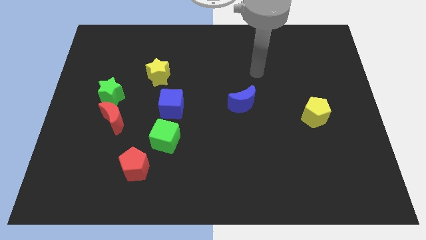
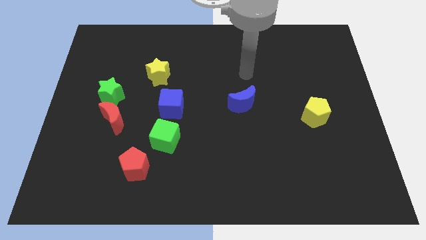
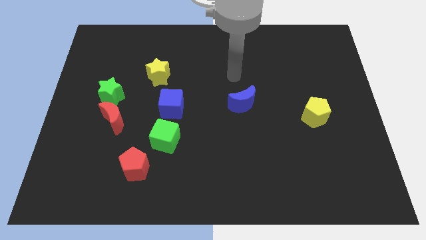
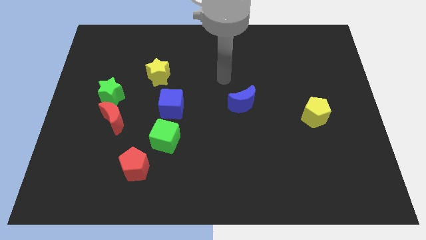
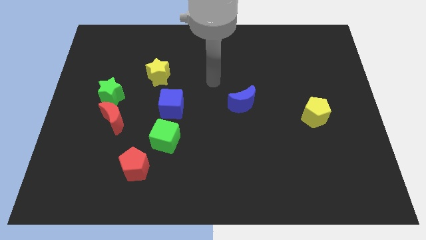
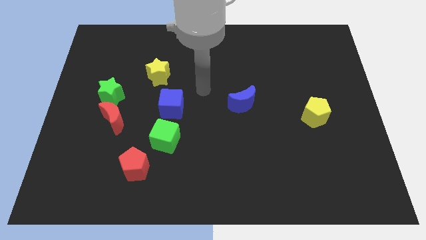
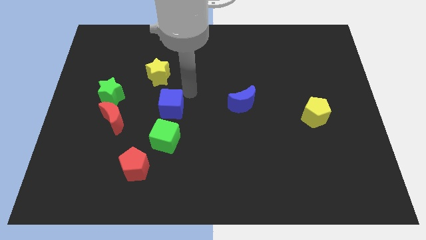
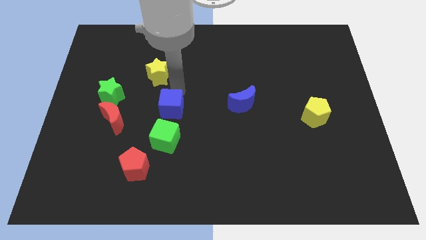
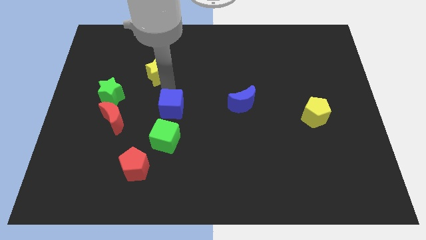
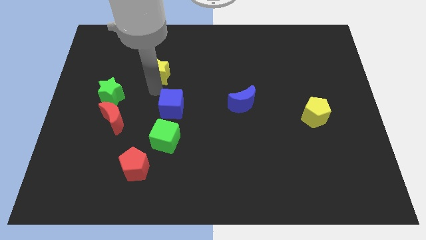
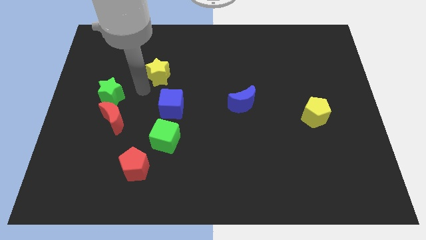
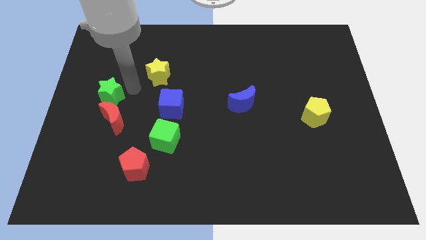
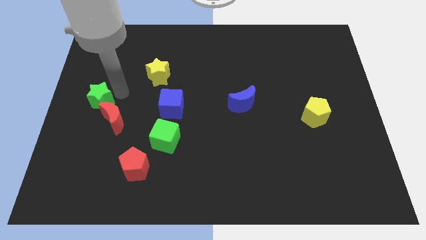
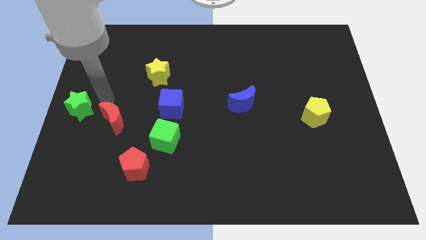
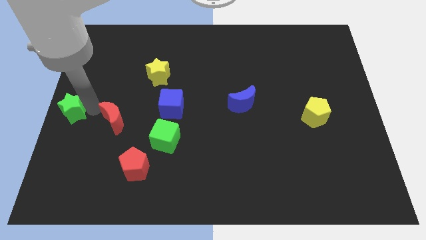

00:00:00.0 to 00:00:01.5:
move the red moon away from the green star

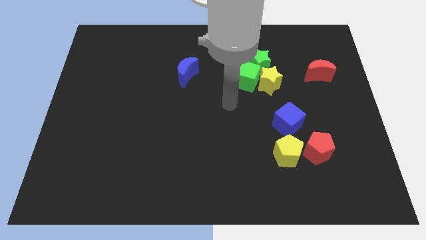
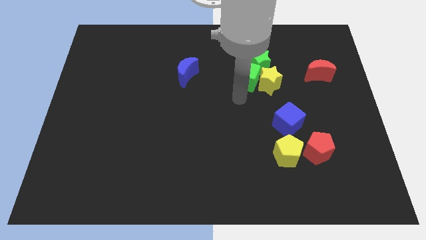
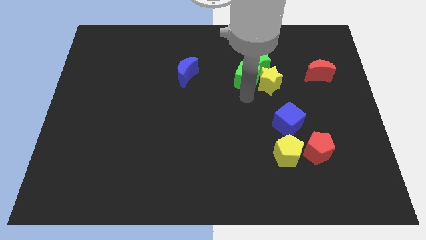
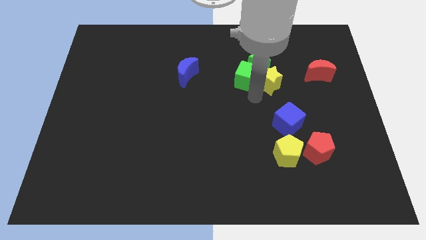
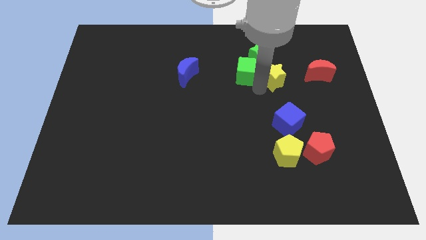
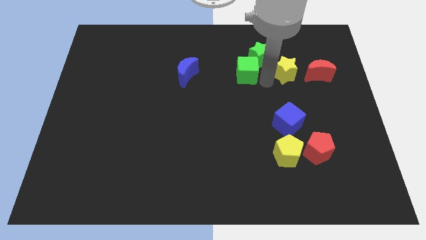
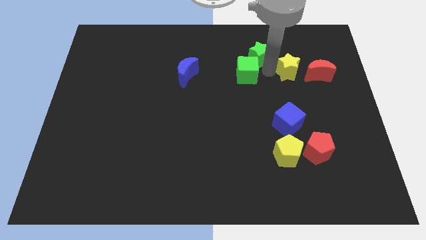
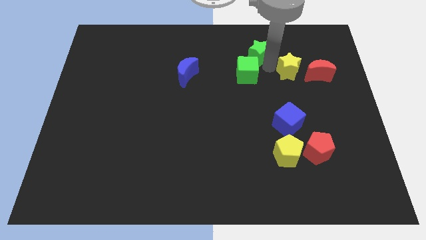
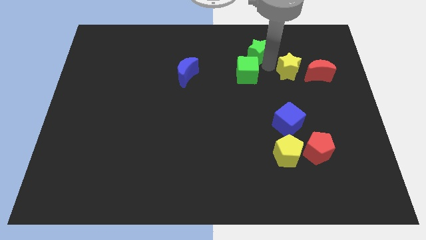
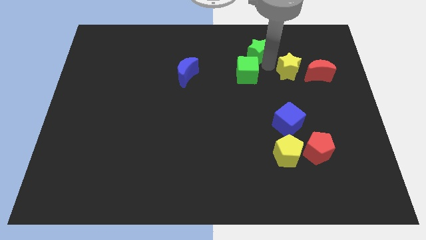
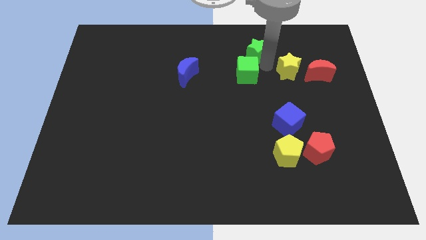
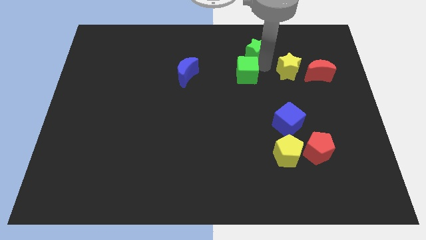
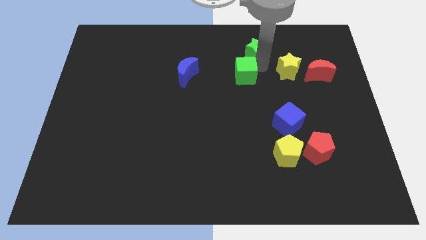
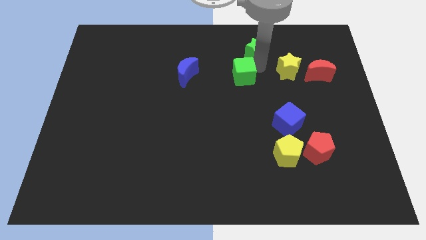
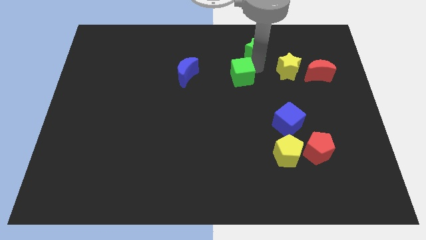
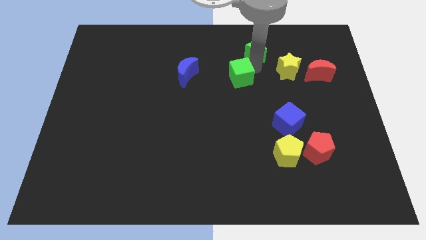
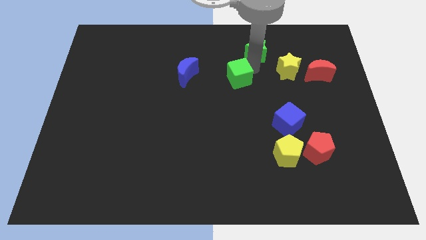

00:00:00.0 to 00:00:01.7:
pull the green cube apart from the yellow star and green star

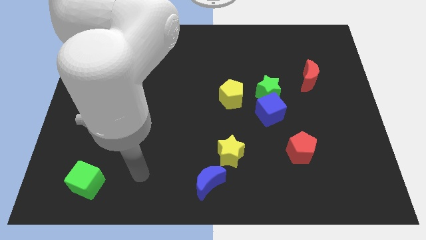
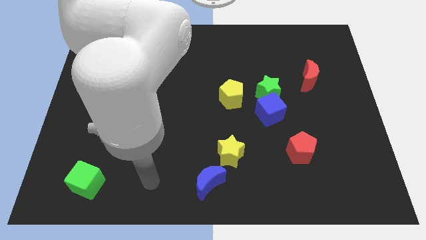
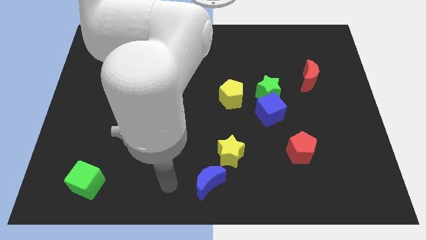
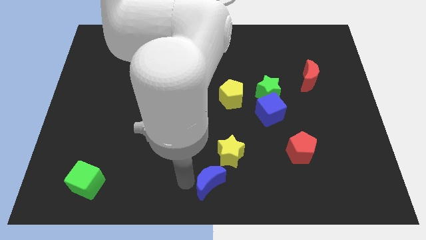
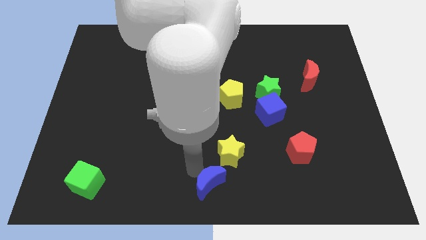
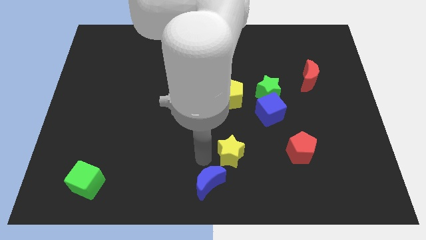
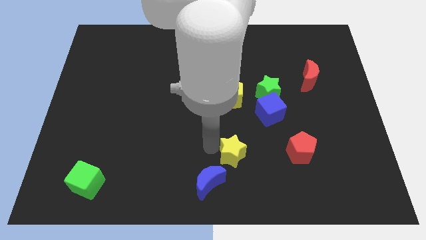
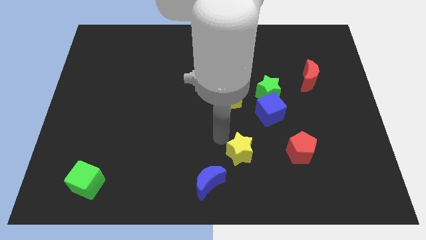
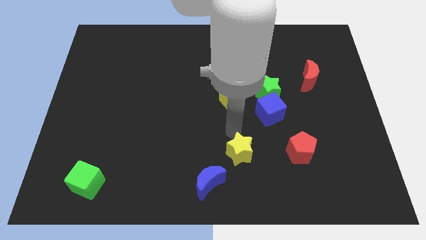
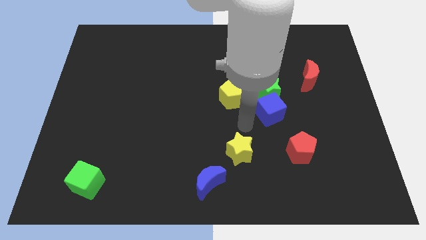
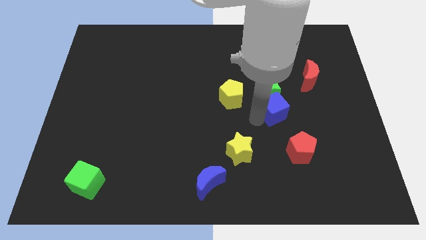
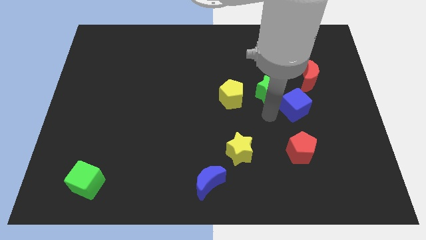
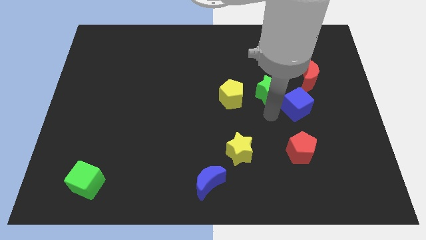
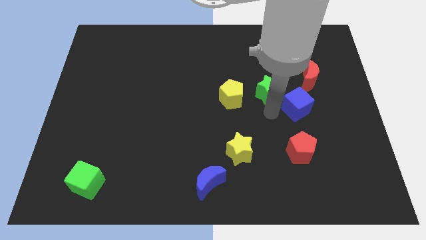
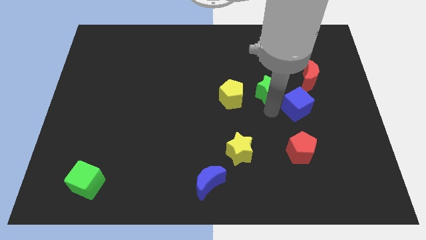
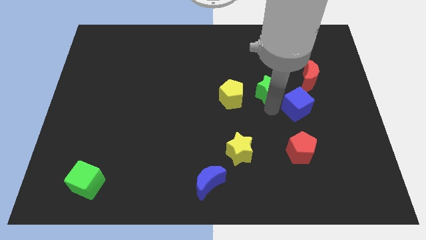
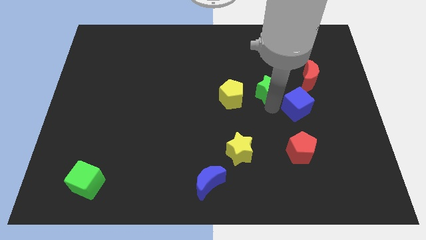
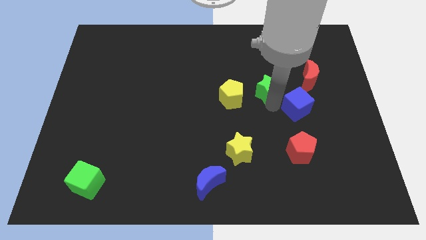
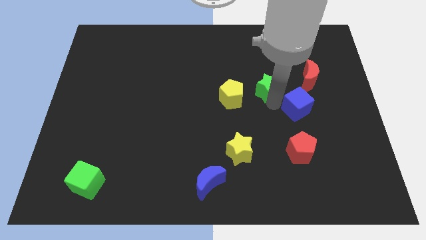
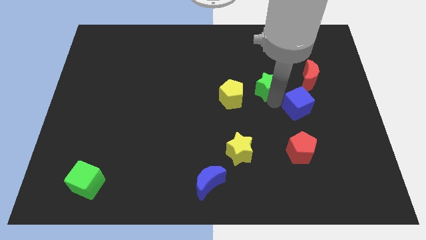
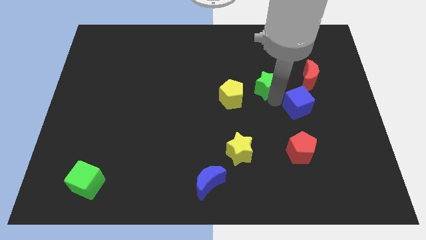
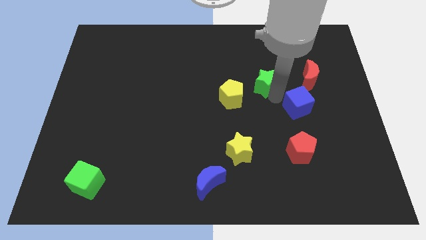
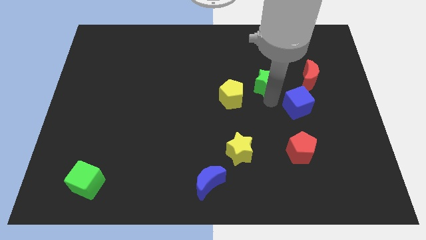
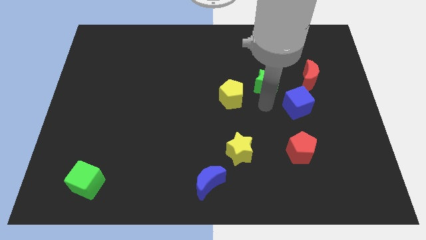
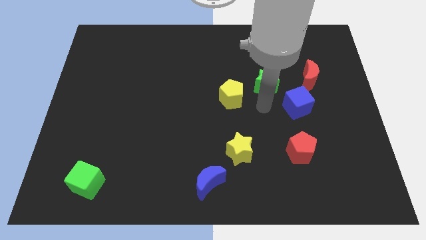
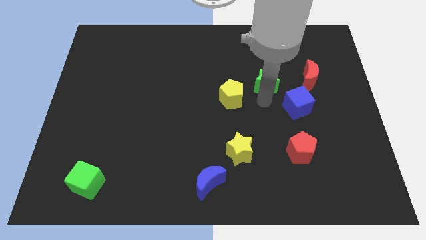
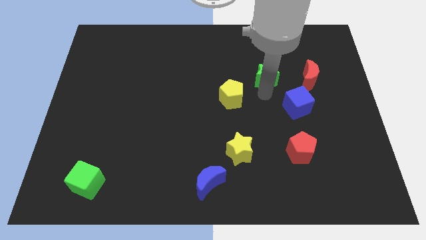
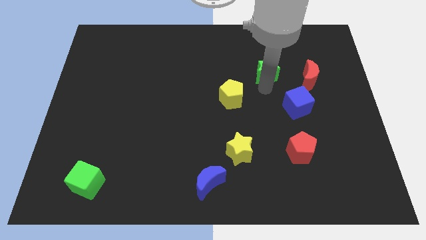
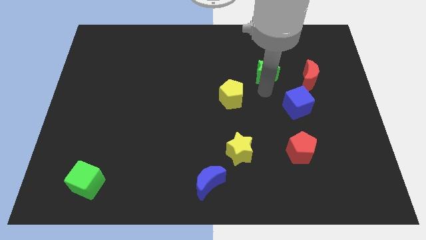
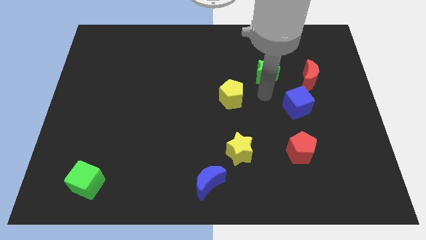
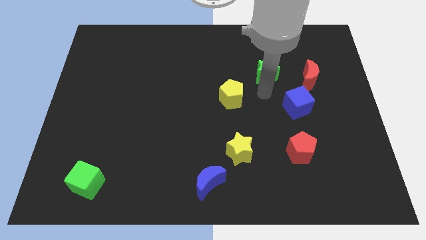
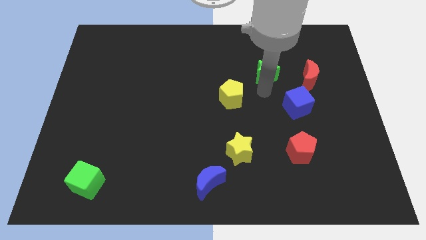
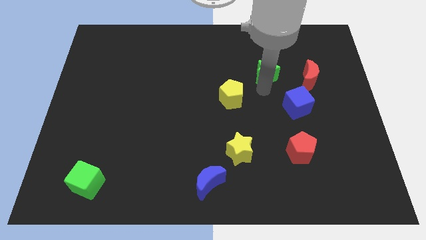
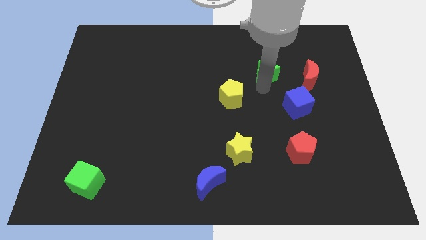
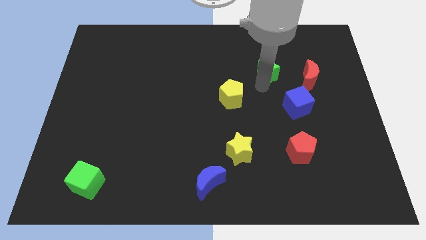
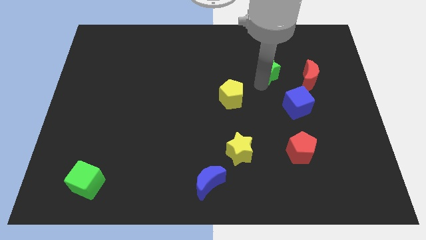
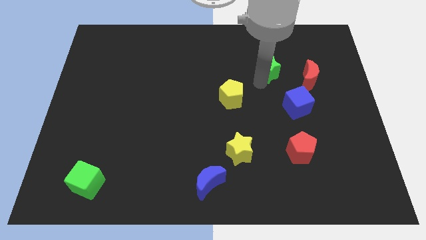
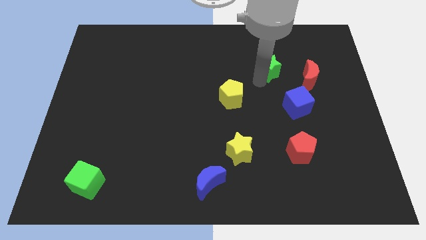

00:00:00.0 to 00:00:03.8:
separate the green star from the blue cube and yellow pentagon

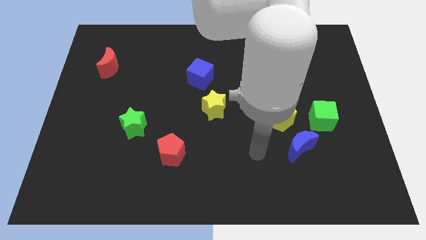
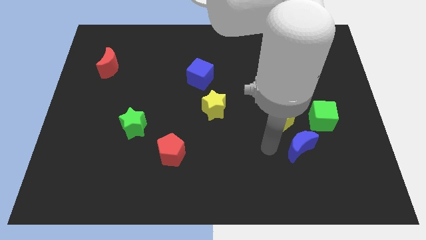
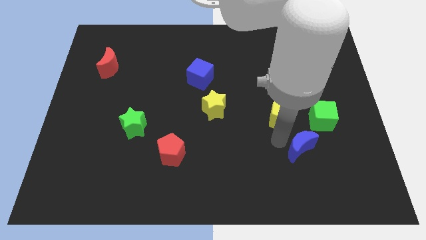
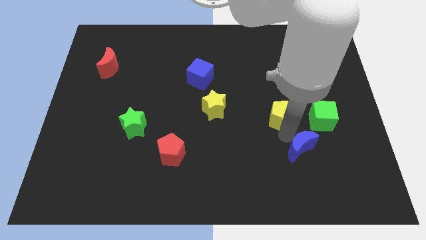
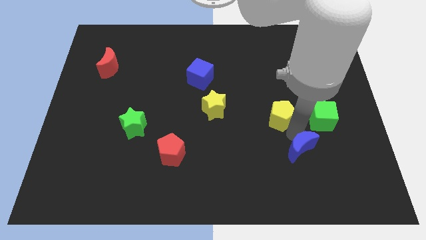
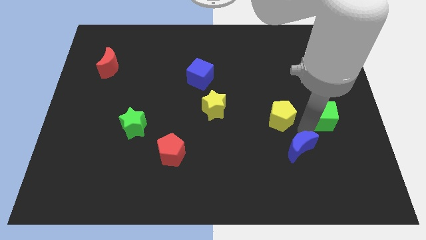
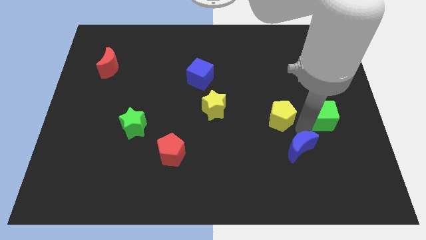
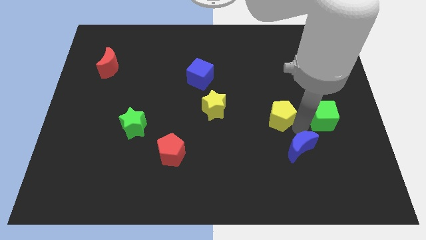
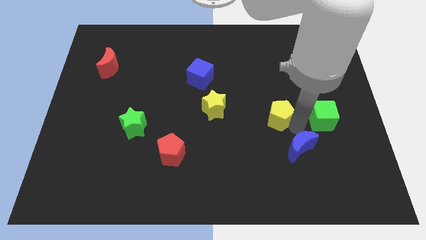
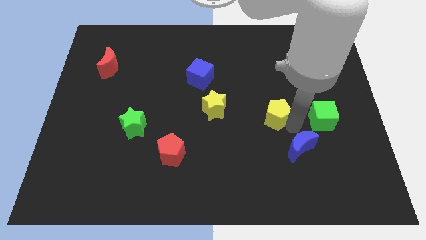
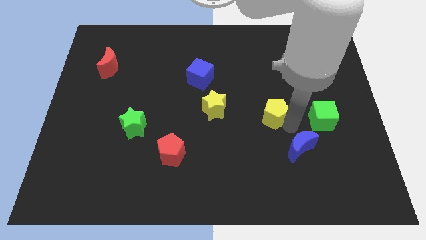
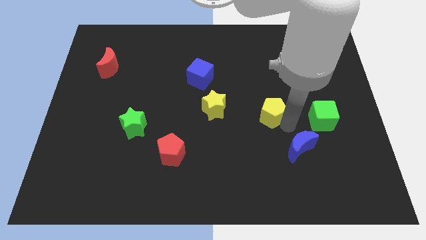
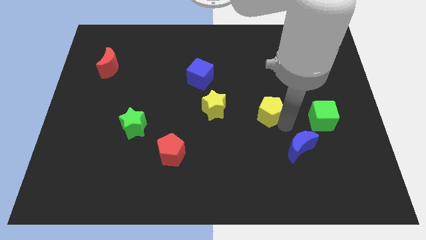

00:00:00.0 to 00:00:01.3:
pull the yellow pentagon apart from the blue moon and green cube

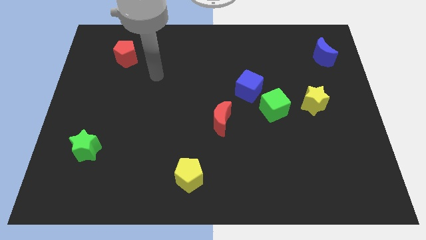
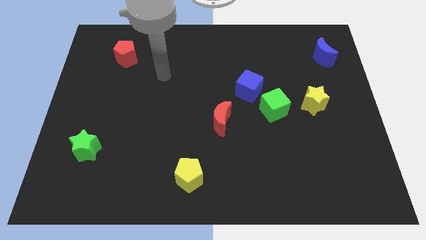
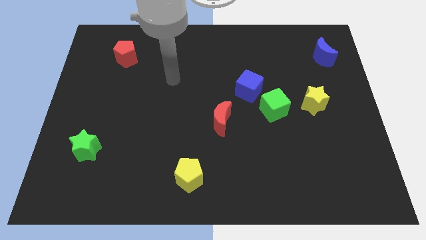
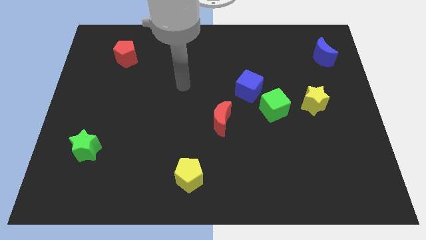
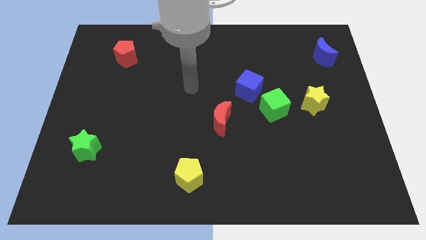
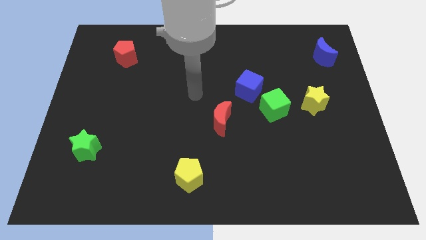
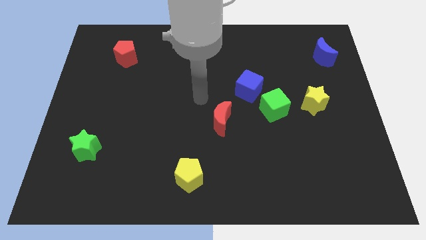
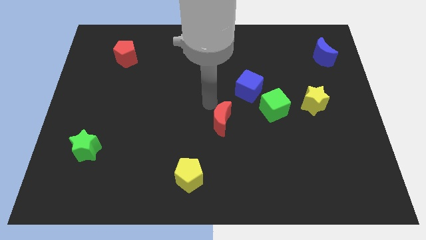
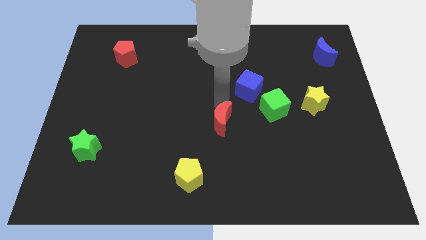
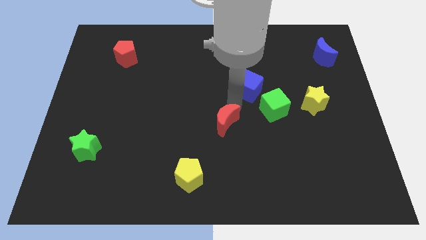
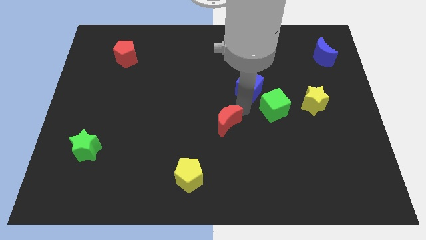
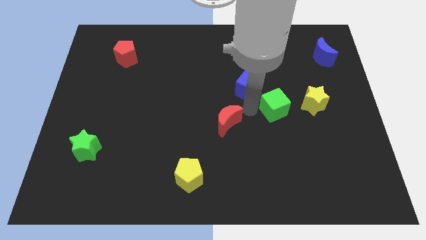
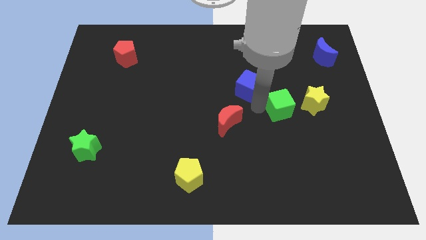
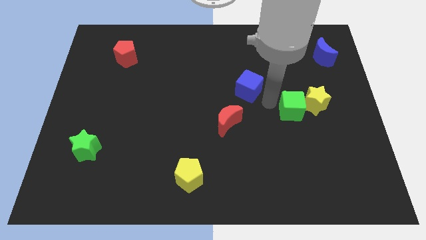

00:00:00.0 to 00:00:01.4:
pull the blue cube apart from the green cube
